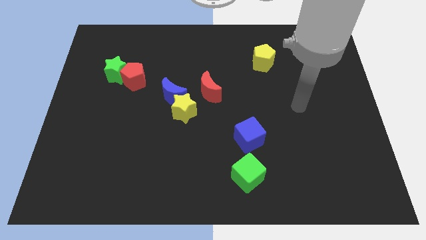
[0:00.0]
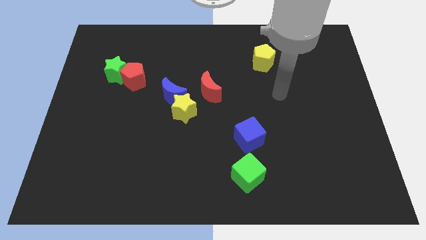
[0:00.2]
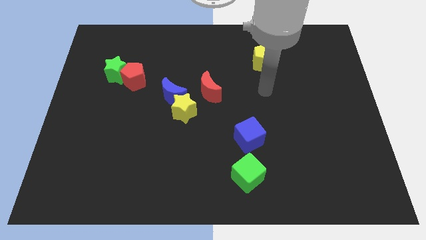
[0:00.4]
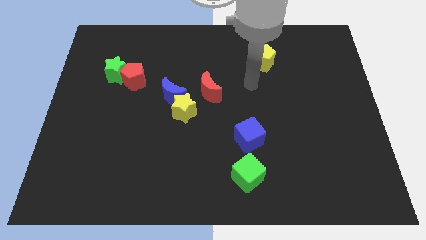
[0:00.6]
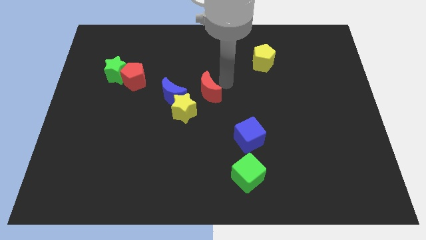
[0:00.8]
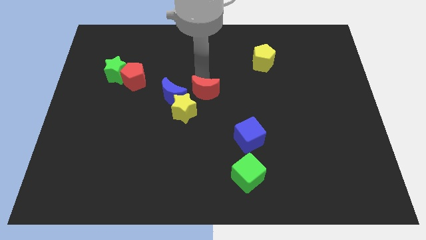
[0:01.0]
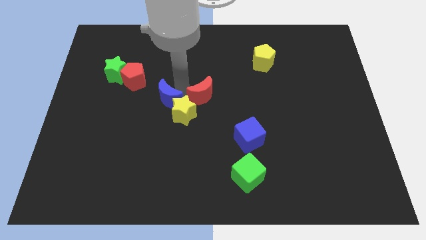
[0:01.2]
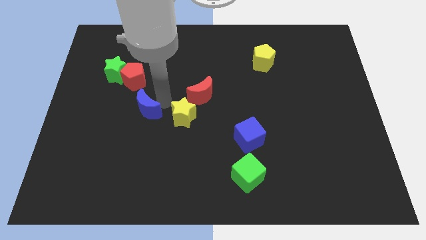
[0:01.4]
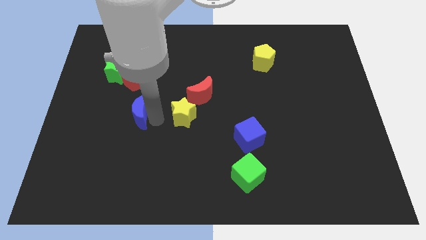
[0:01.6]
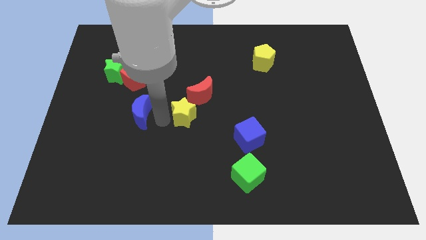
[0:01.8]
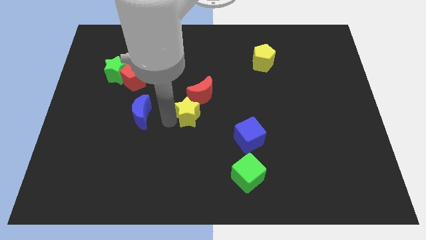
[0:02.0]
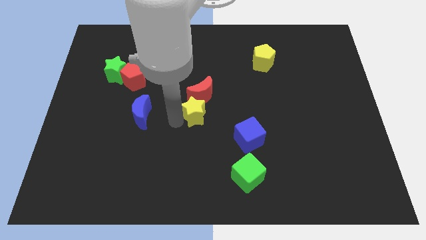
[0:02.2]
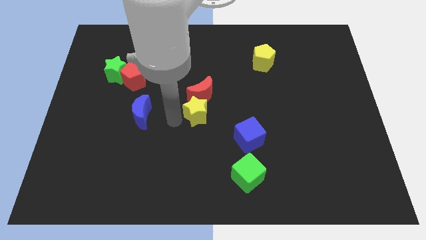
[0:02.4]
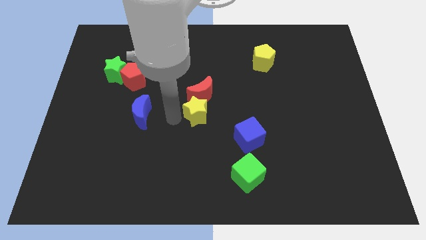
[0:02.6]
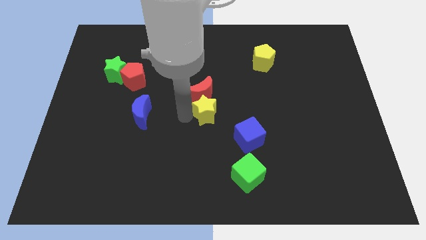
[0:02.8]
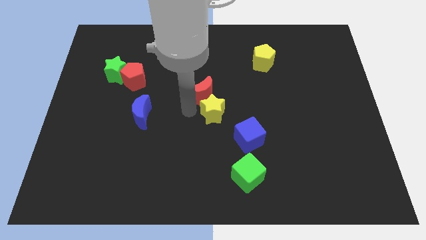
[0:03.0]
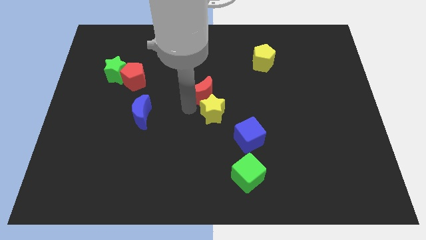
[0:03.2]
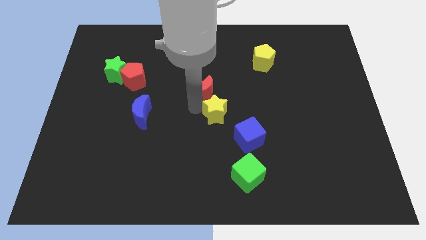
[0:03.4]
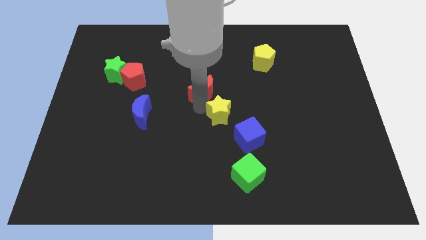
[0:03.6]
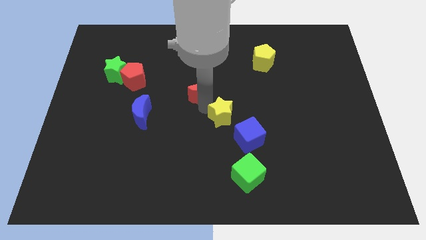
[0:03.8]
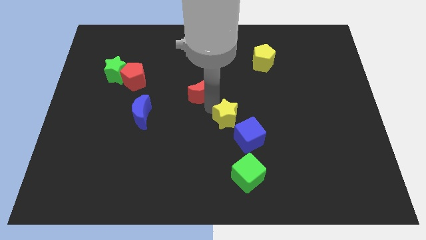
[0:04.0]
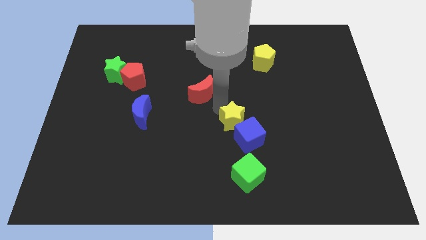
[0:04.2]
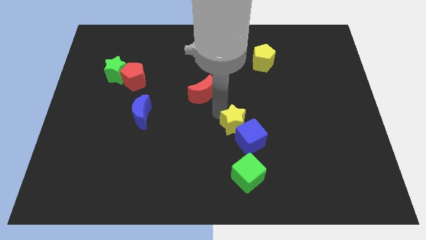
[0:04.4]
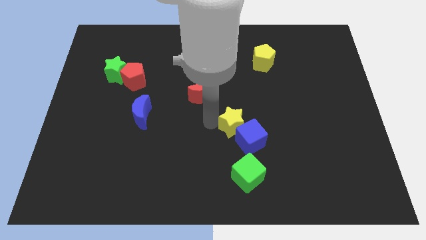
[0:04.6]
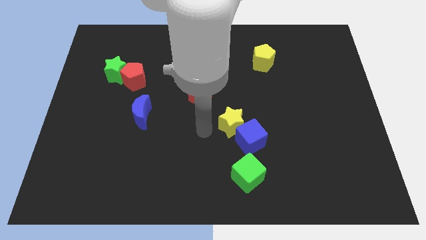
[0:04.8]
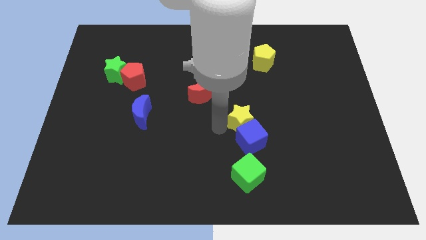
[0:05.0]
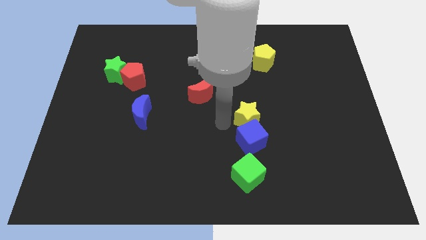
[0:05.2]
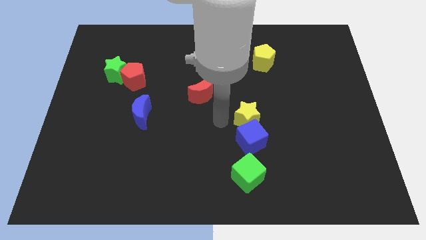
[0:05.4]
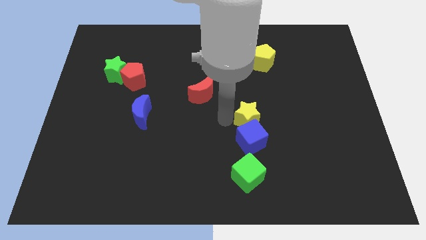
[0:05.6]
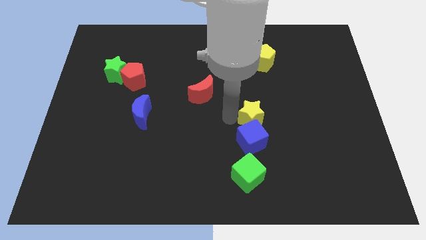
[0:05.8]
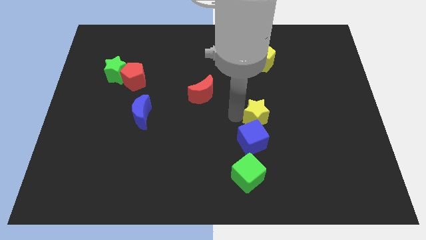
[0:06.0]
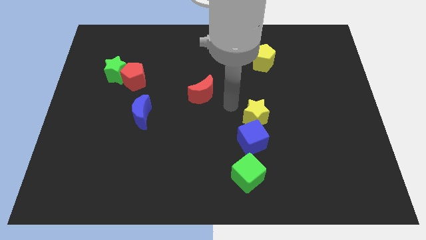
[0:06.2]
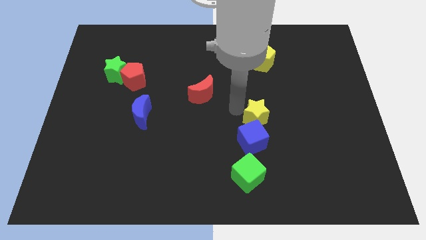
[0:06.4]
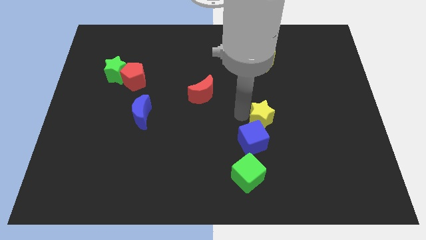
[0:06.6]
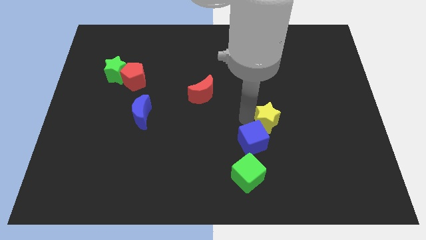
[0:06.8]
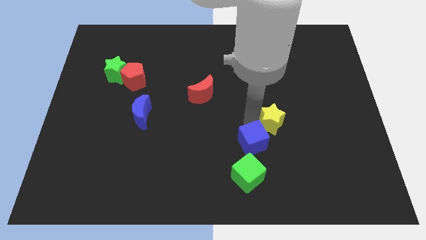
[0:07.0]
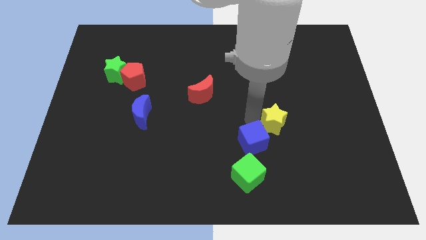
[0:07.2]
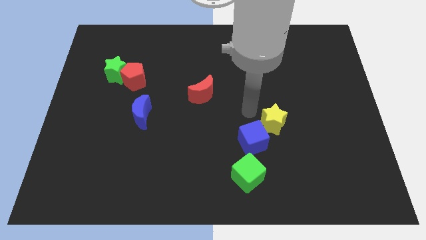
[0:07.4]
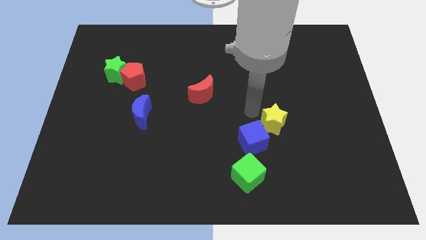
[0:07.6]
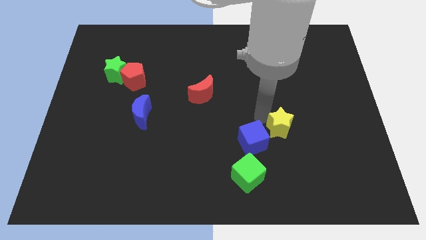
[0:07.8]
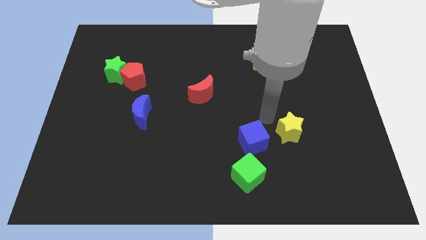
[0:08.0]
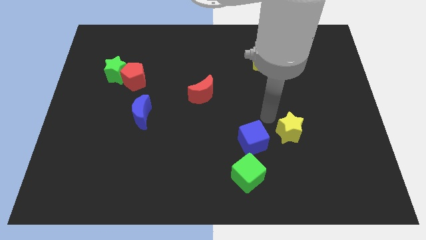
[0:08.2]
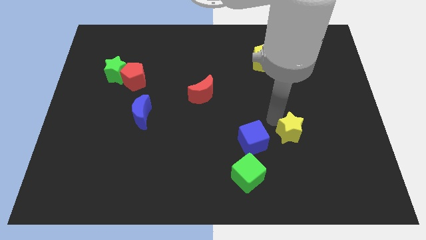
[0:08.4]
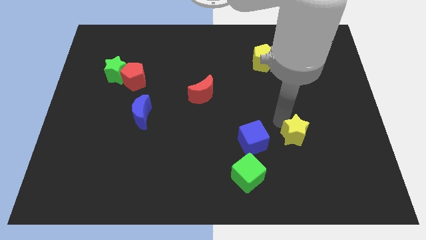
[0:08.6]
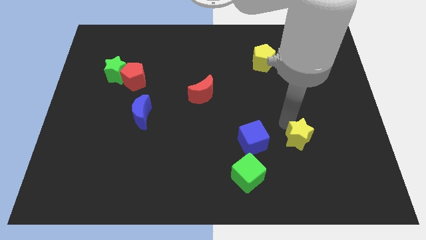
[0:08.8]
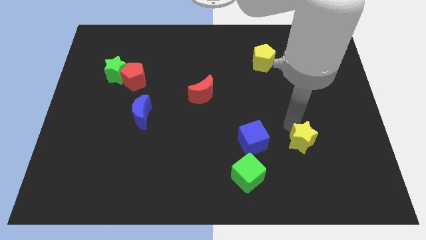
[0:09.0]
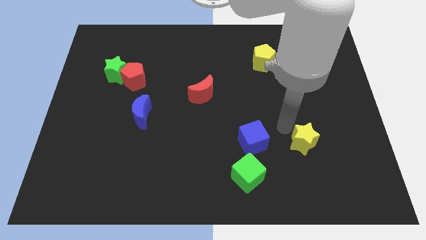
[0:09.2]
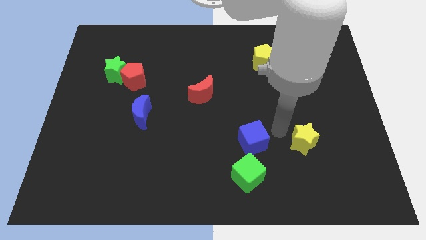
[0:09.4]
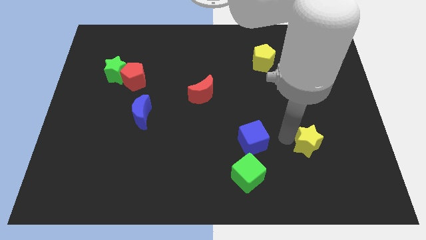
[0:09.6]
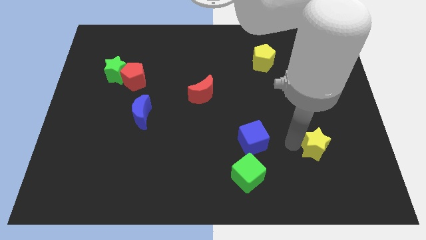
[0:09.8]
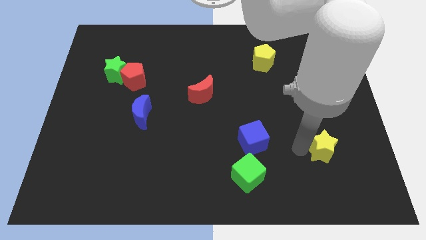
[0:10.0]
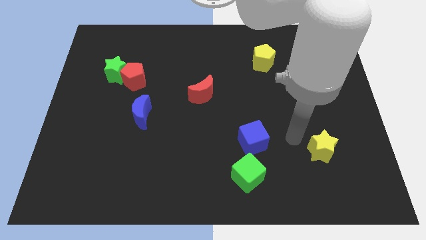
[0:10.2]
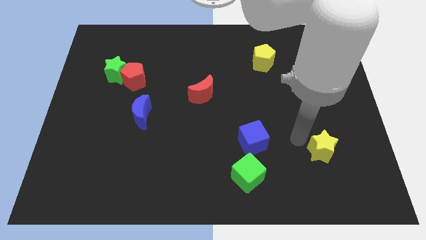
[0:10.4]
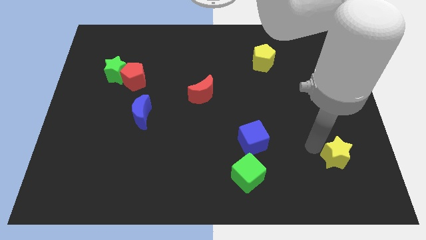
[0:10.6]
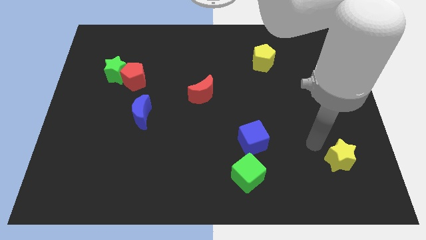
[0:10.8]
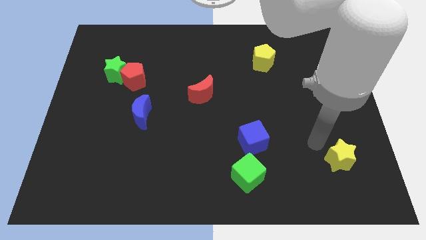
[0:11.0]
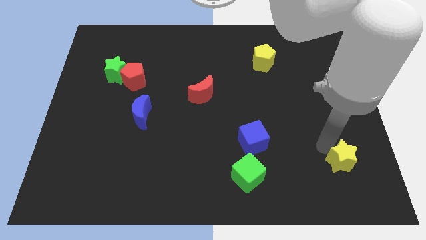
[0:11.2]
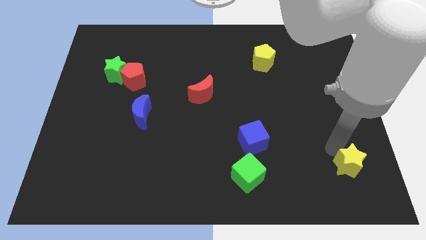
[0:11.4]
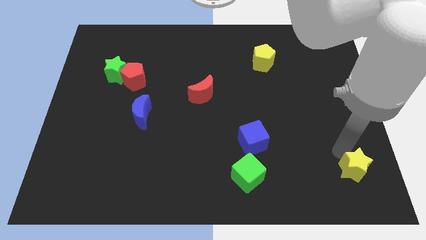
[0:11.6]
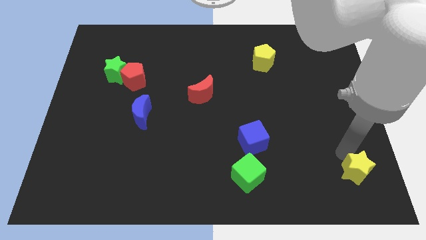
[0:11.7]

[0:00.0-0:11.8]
put the yellow star to the bottom right
